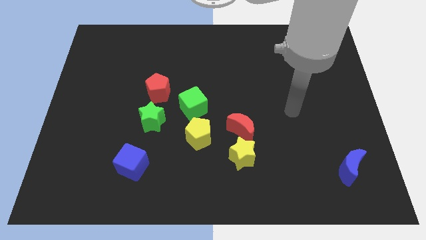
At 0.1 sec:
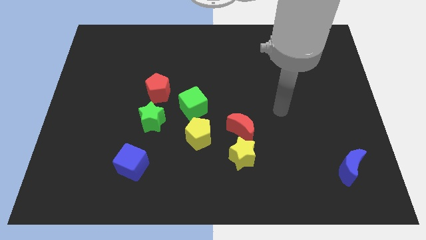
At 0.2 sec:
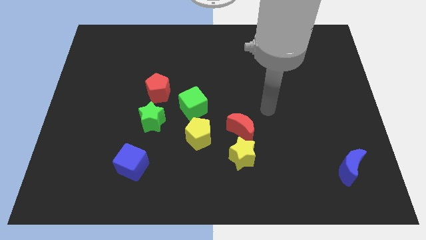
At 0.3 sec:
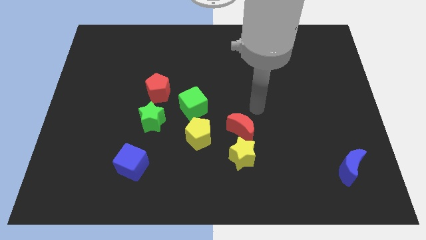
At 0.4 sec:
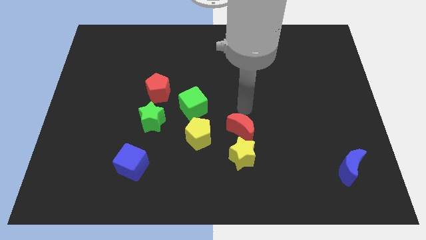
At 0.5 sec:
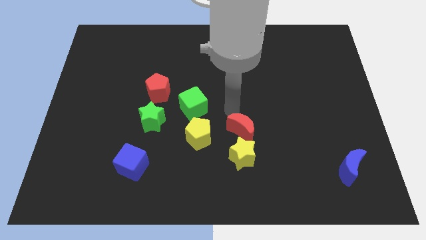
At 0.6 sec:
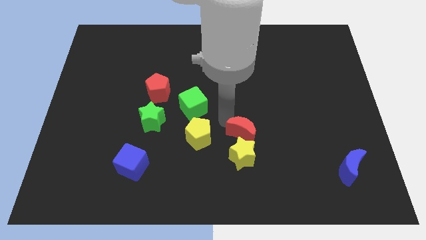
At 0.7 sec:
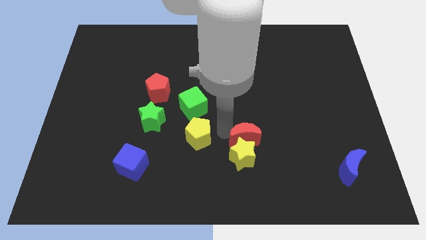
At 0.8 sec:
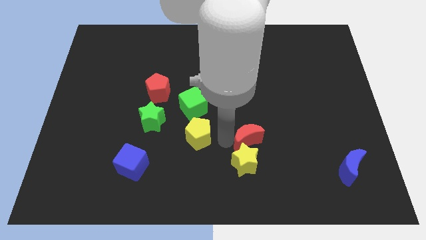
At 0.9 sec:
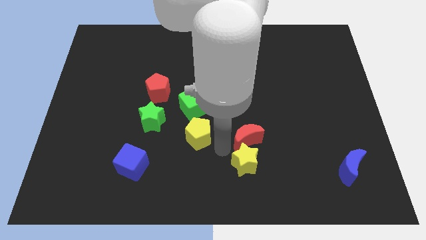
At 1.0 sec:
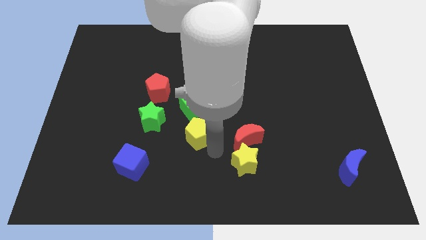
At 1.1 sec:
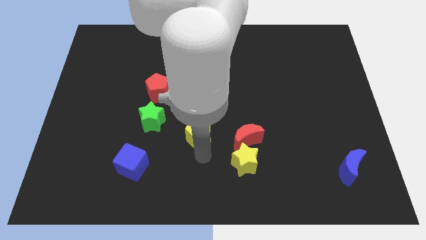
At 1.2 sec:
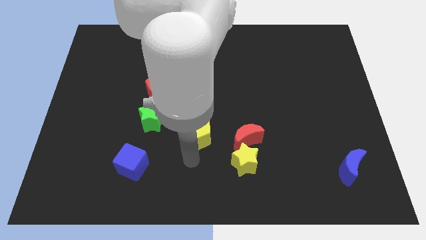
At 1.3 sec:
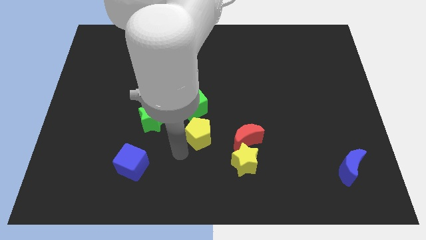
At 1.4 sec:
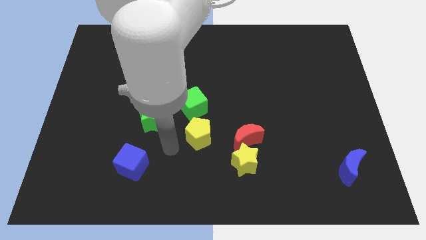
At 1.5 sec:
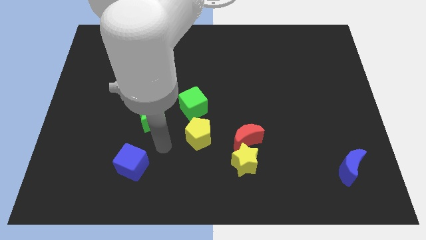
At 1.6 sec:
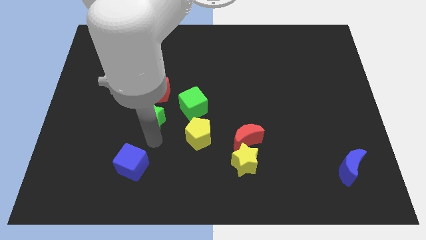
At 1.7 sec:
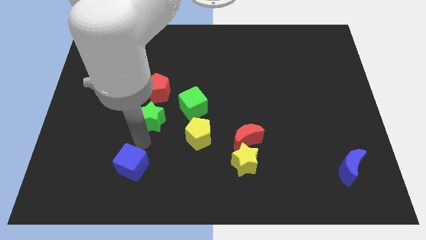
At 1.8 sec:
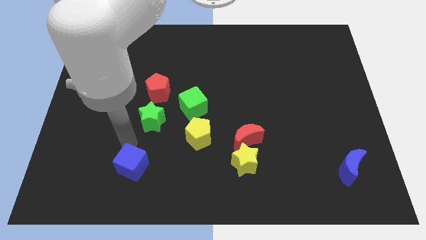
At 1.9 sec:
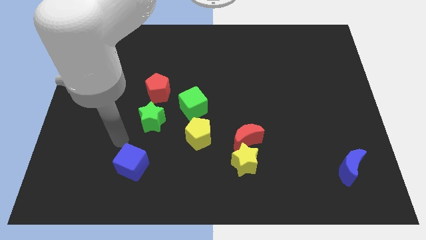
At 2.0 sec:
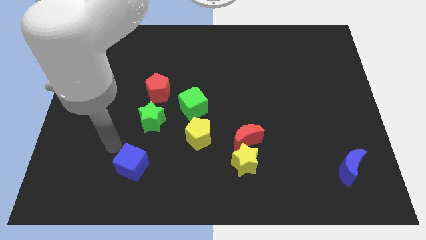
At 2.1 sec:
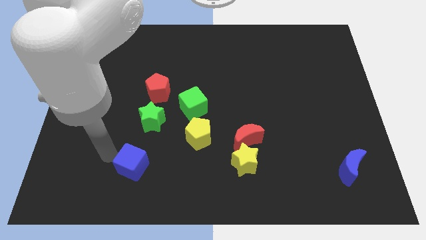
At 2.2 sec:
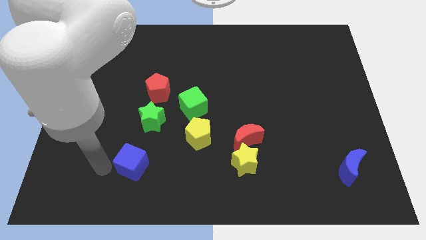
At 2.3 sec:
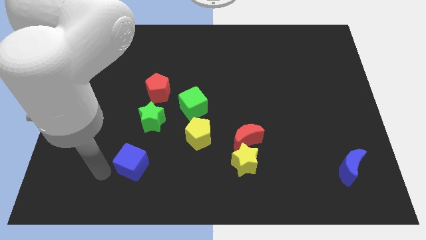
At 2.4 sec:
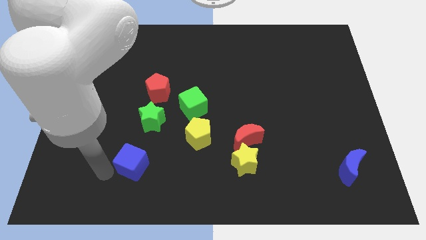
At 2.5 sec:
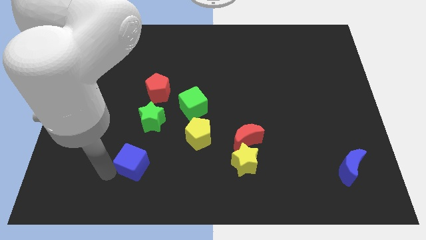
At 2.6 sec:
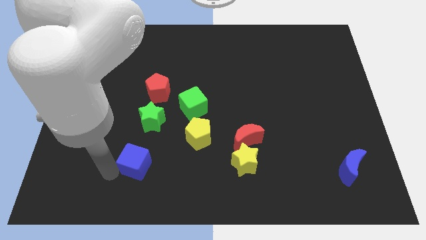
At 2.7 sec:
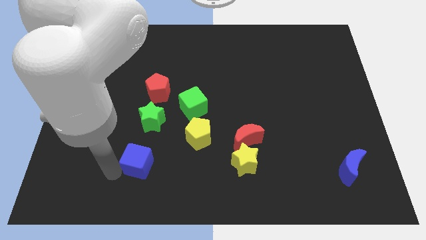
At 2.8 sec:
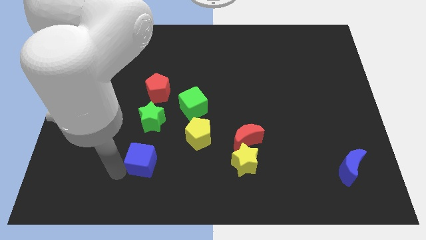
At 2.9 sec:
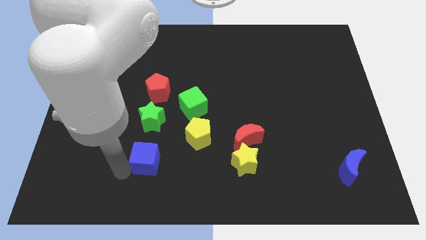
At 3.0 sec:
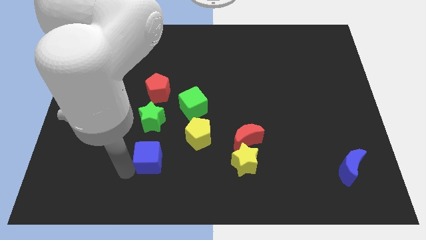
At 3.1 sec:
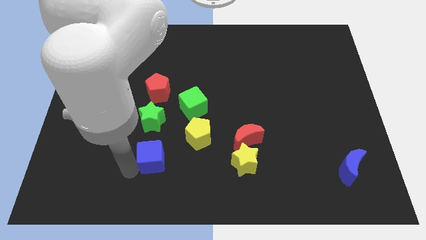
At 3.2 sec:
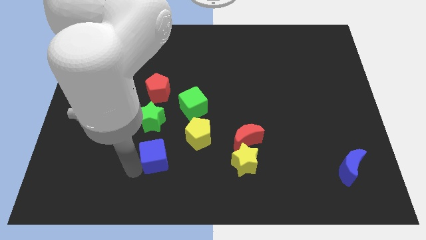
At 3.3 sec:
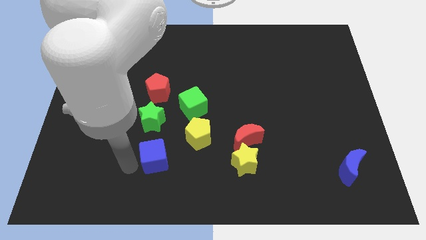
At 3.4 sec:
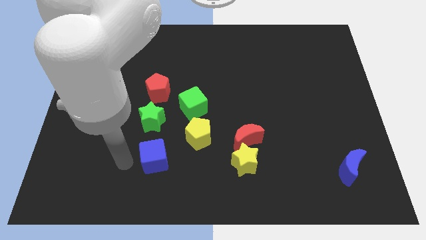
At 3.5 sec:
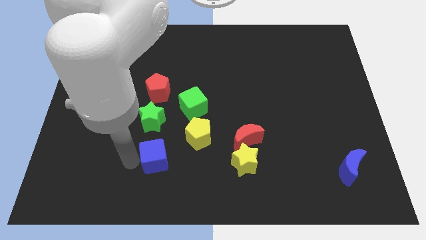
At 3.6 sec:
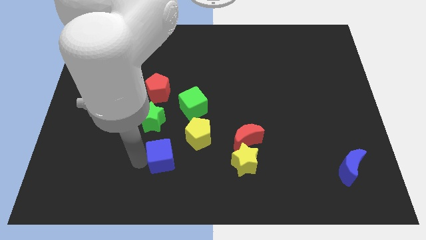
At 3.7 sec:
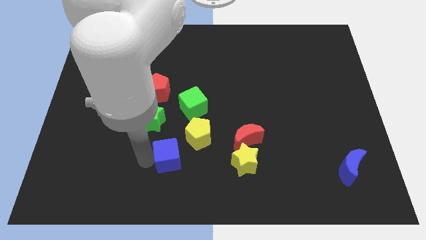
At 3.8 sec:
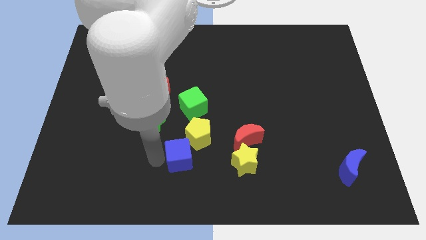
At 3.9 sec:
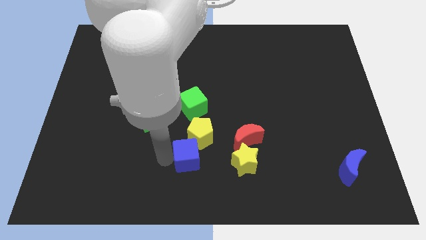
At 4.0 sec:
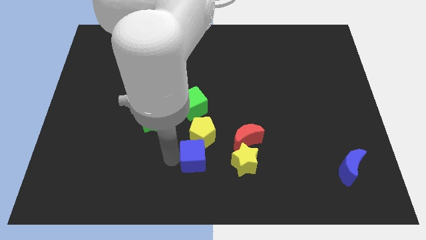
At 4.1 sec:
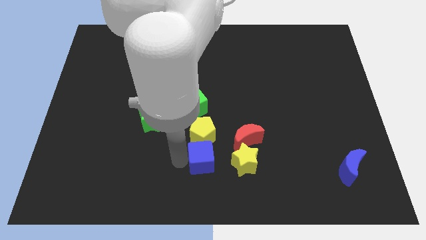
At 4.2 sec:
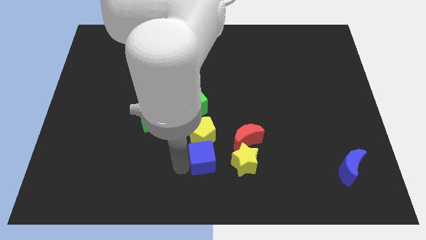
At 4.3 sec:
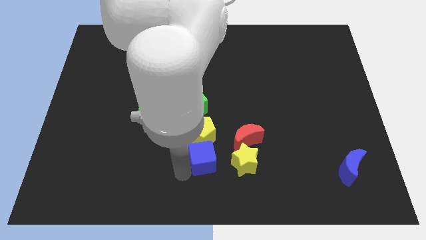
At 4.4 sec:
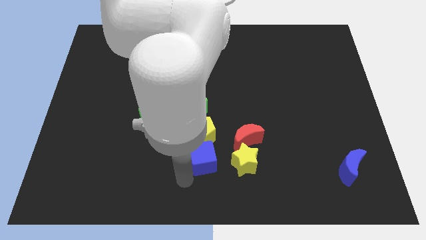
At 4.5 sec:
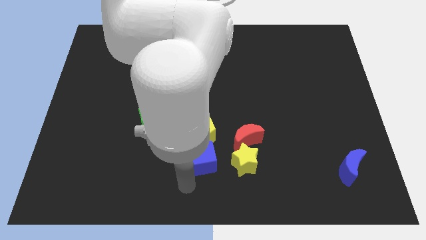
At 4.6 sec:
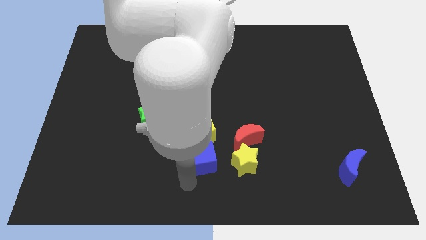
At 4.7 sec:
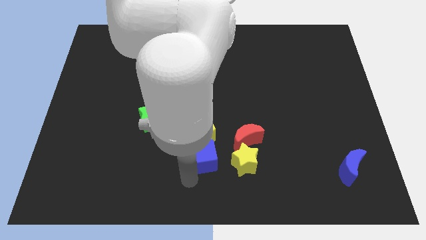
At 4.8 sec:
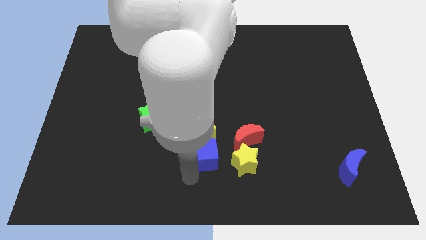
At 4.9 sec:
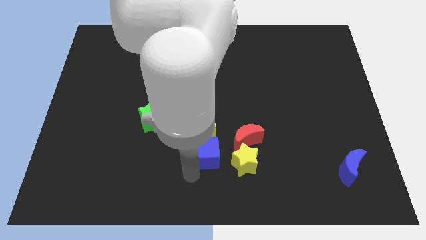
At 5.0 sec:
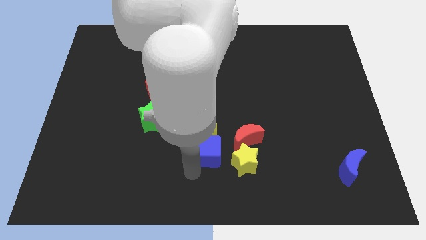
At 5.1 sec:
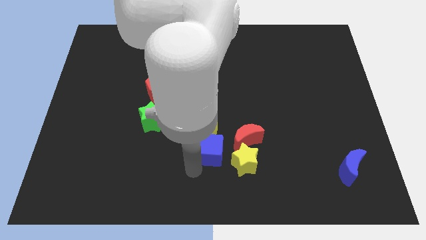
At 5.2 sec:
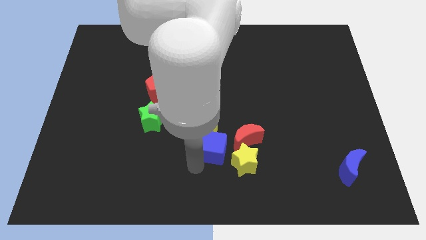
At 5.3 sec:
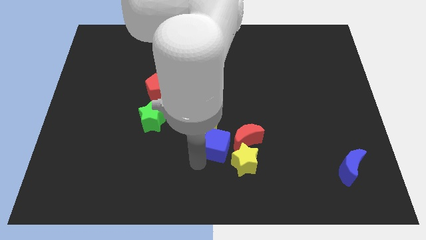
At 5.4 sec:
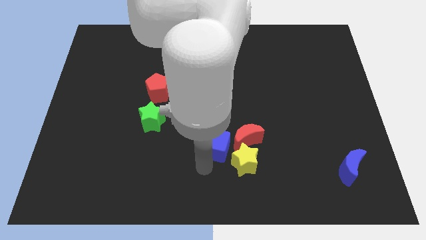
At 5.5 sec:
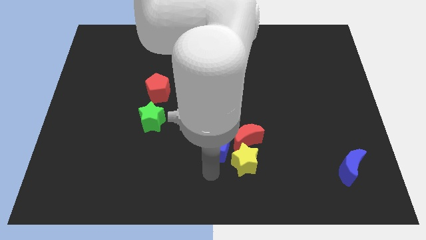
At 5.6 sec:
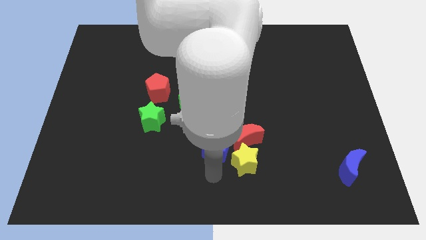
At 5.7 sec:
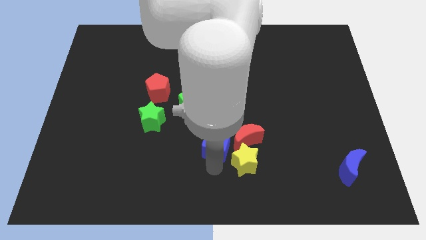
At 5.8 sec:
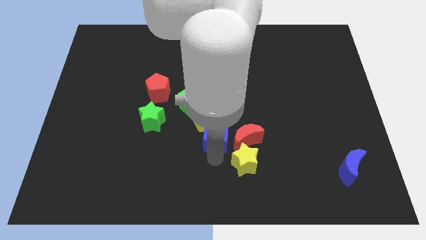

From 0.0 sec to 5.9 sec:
slide the blue cube to the middle of the board
